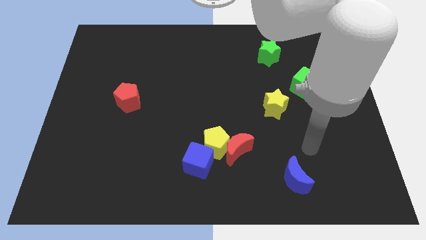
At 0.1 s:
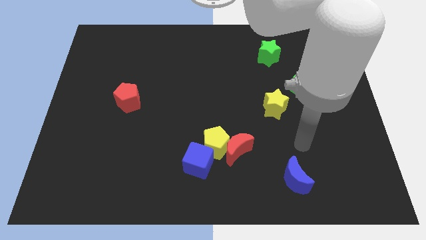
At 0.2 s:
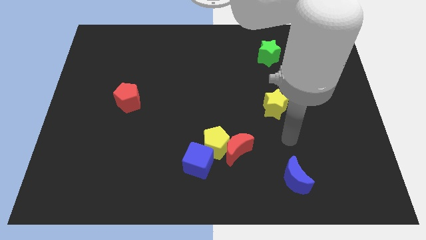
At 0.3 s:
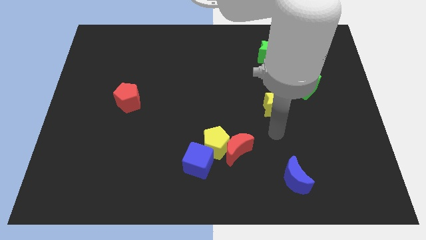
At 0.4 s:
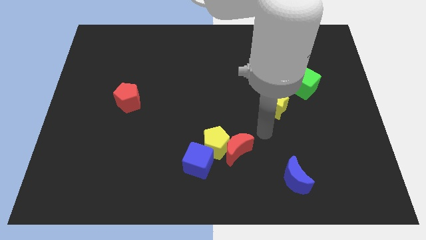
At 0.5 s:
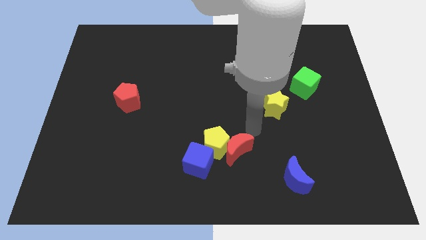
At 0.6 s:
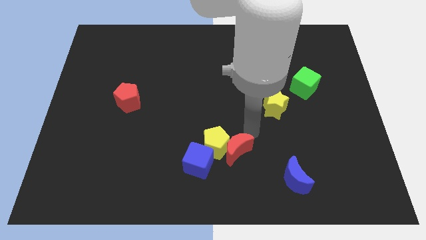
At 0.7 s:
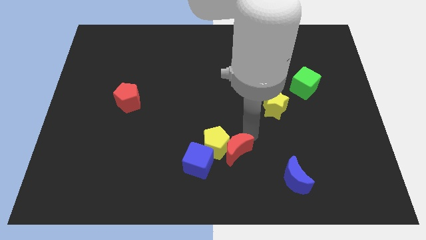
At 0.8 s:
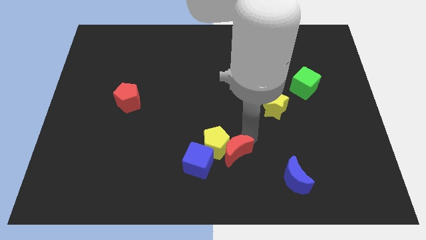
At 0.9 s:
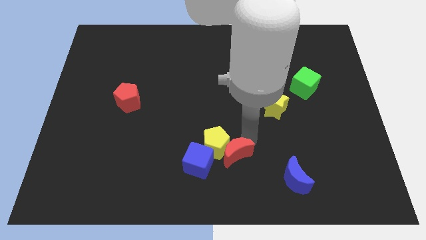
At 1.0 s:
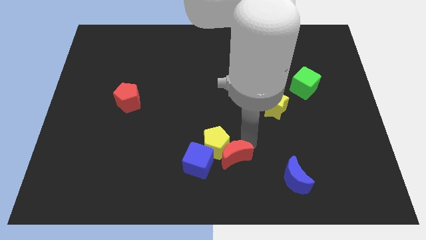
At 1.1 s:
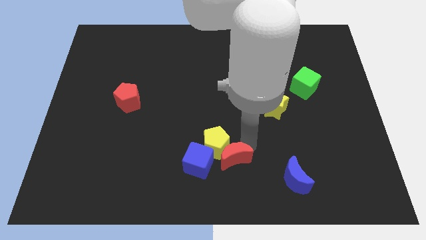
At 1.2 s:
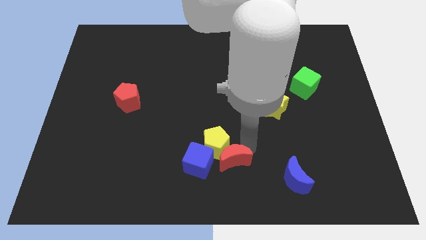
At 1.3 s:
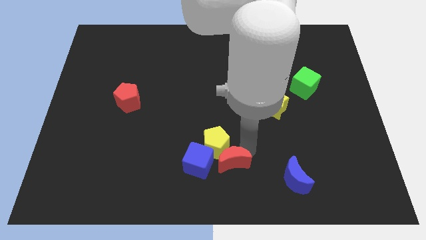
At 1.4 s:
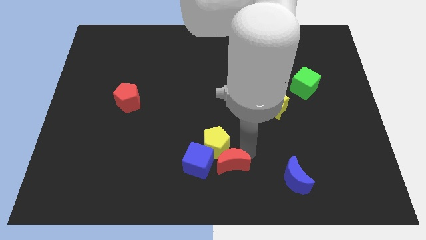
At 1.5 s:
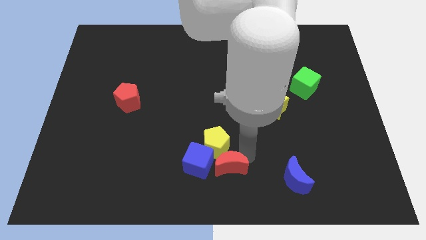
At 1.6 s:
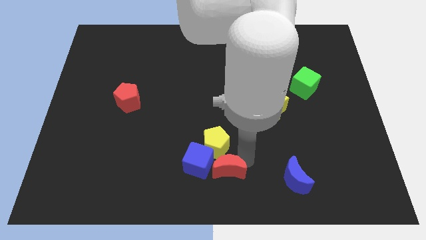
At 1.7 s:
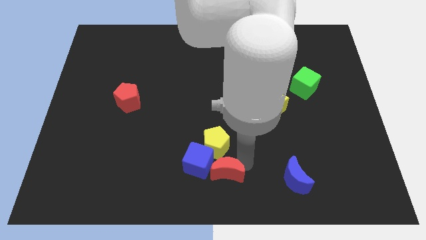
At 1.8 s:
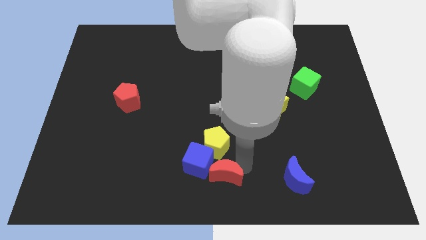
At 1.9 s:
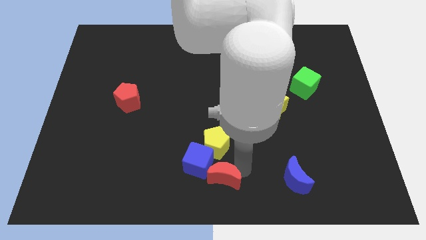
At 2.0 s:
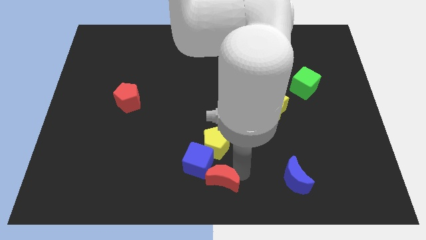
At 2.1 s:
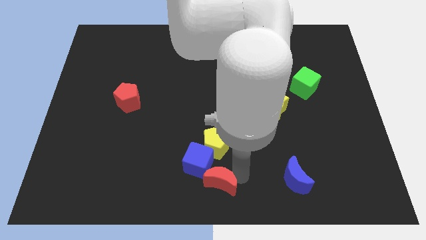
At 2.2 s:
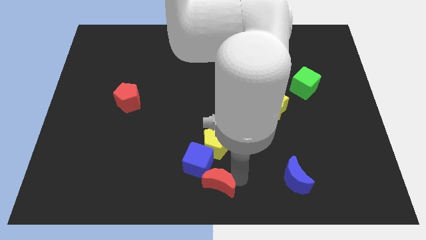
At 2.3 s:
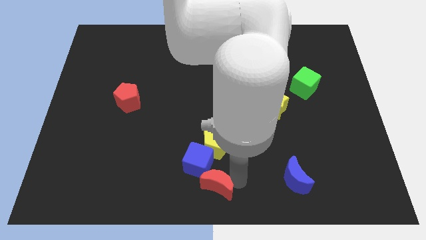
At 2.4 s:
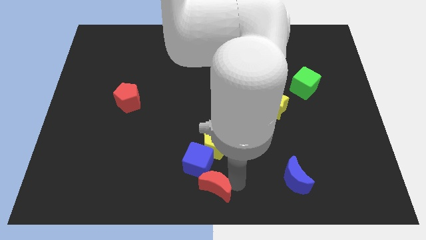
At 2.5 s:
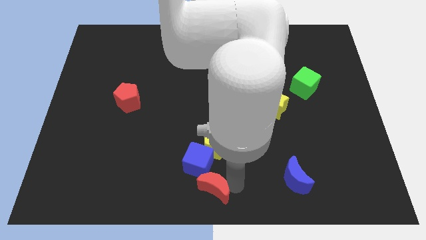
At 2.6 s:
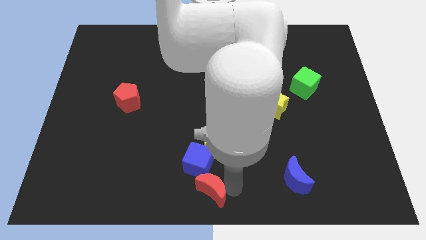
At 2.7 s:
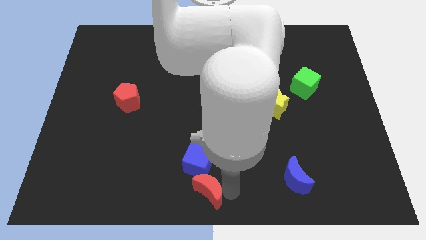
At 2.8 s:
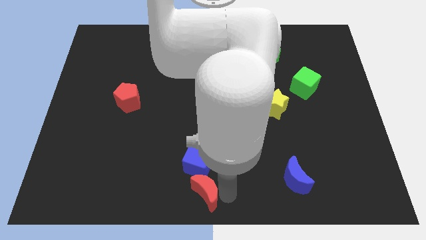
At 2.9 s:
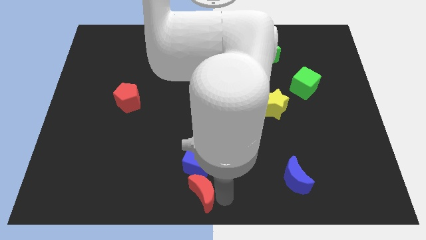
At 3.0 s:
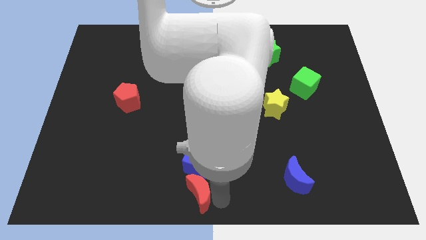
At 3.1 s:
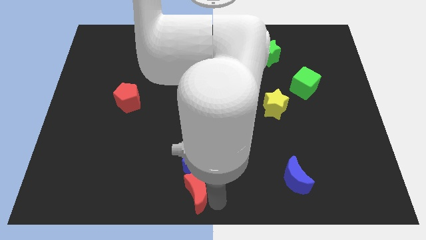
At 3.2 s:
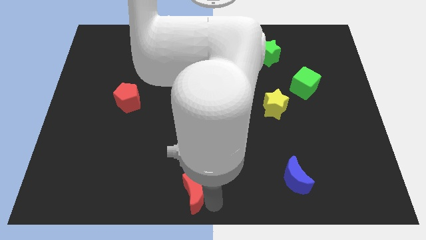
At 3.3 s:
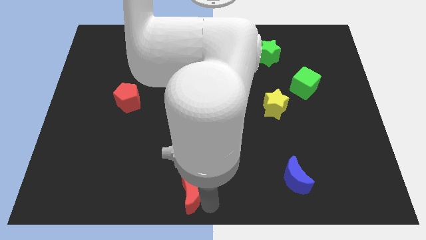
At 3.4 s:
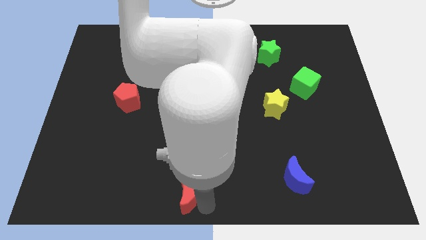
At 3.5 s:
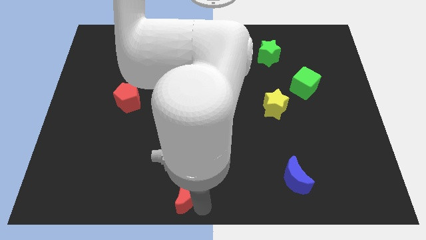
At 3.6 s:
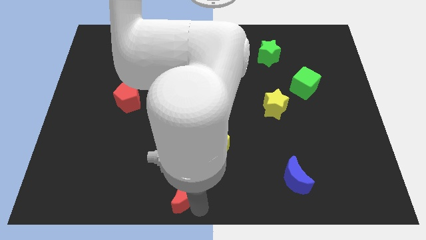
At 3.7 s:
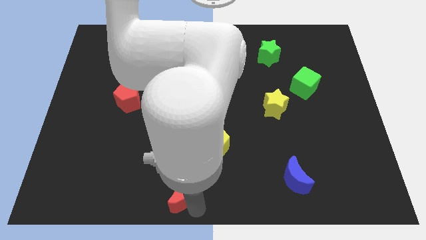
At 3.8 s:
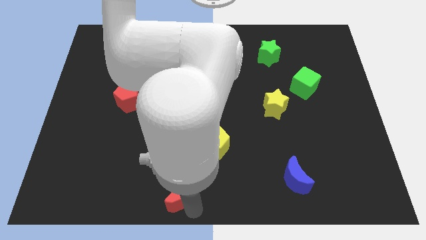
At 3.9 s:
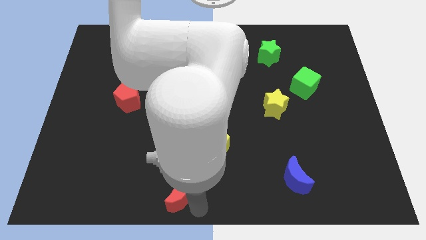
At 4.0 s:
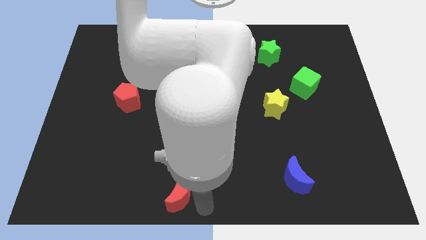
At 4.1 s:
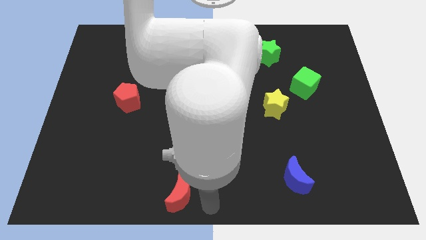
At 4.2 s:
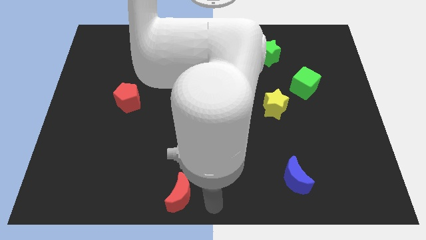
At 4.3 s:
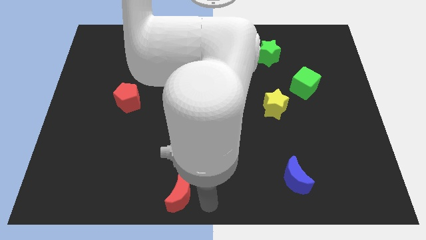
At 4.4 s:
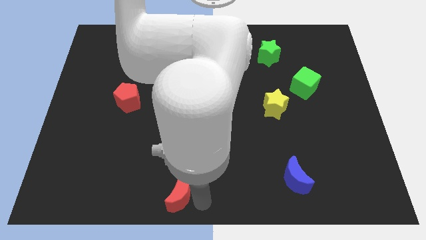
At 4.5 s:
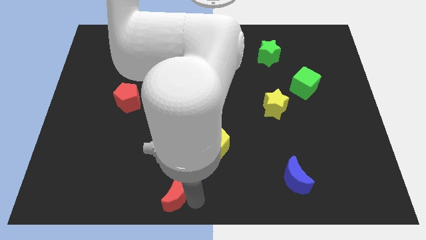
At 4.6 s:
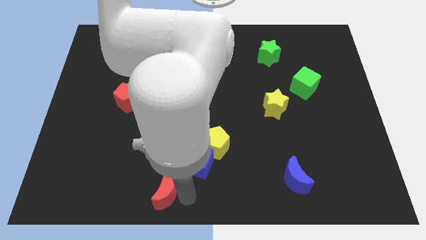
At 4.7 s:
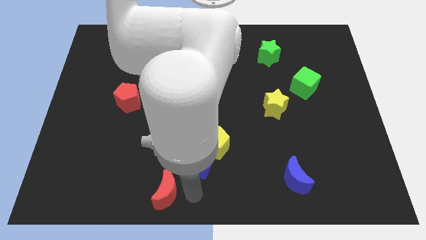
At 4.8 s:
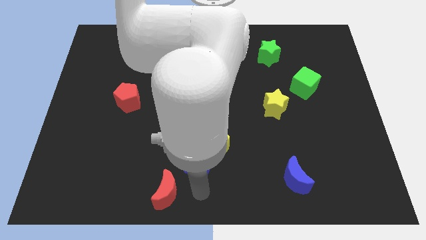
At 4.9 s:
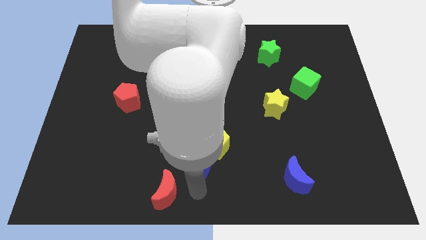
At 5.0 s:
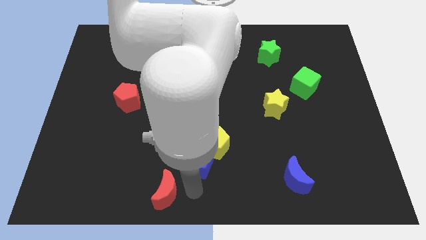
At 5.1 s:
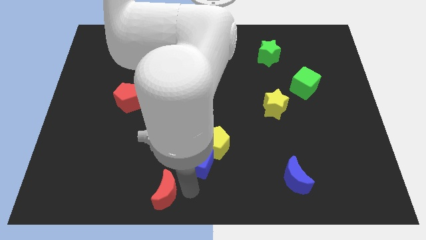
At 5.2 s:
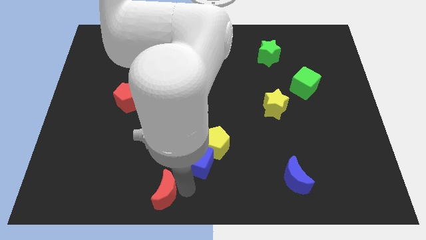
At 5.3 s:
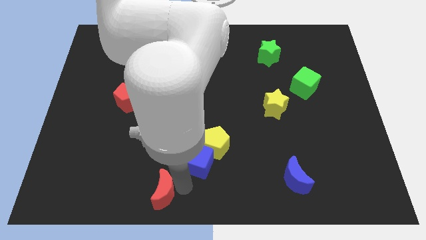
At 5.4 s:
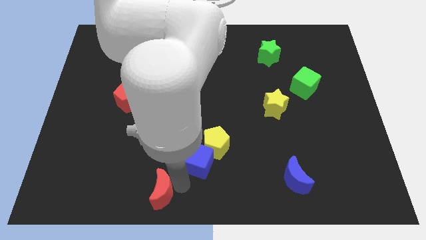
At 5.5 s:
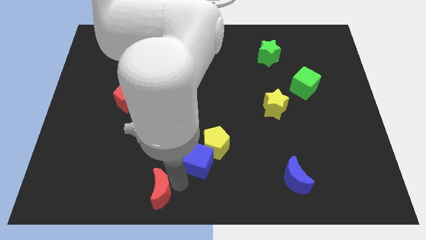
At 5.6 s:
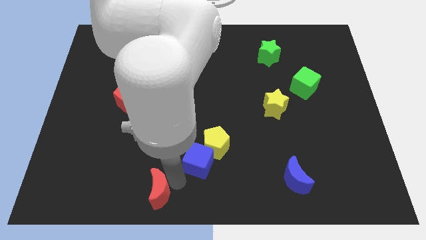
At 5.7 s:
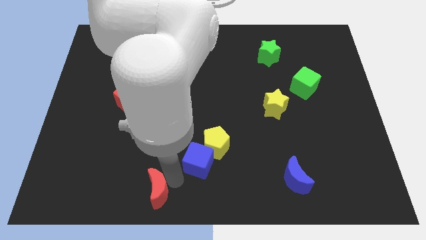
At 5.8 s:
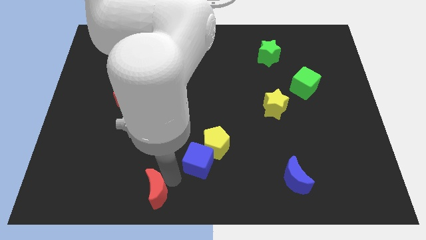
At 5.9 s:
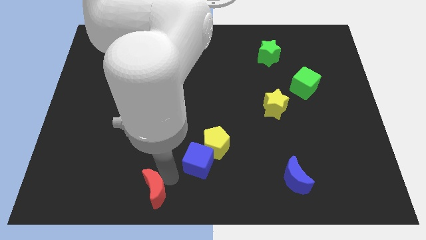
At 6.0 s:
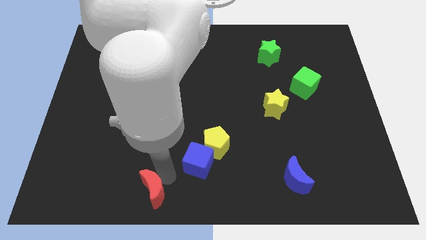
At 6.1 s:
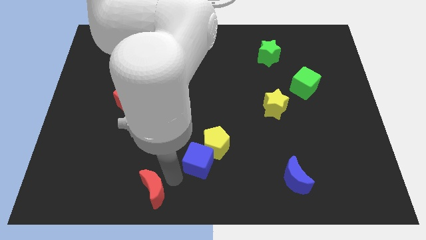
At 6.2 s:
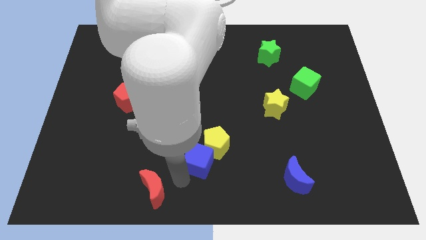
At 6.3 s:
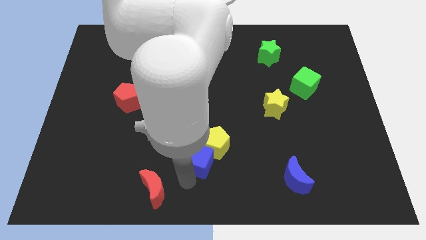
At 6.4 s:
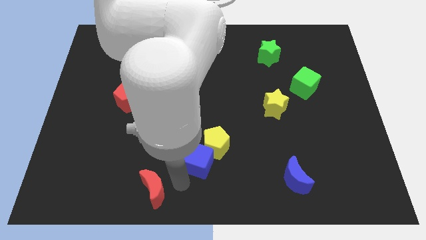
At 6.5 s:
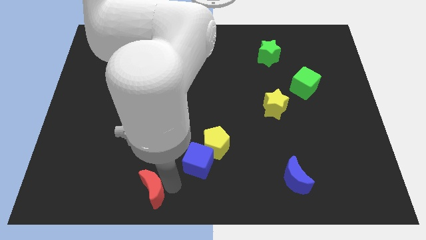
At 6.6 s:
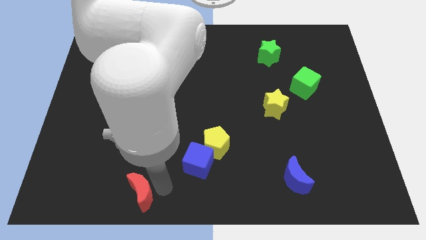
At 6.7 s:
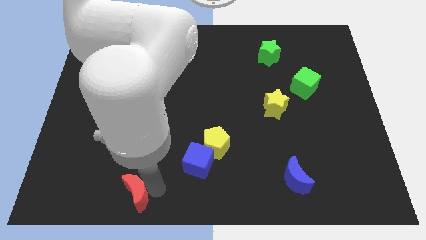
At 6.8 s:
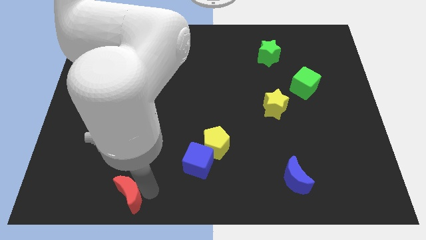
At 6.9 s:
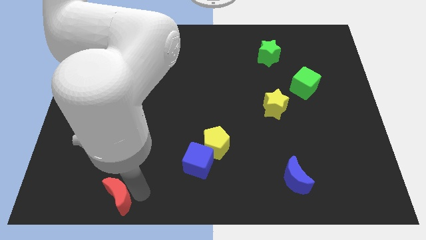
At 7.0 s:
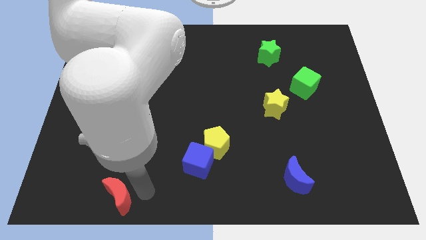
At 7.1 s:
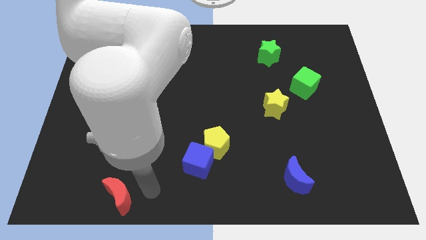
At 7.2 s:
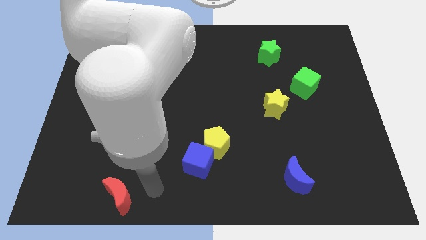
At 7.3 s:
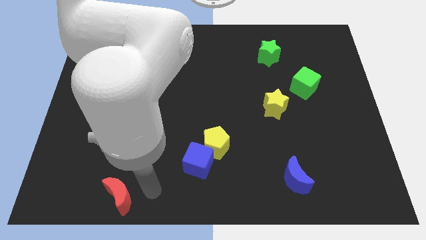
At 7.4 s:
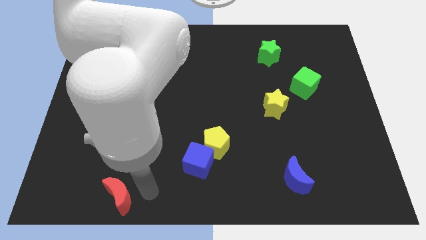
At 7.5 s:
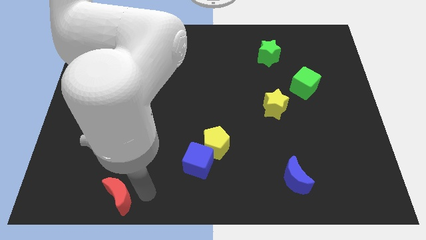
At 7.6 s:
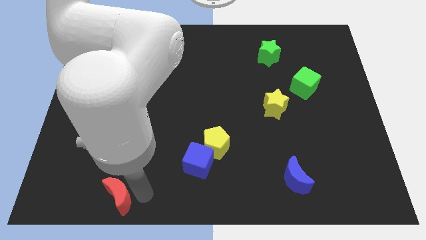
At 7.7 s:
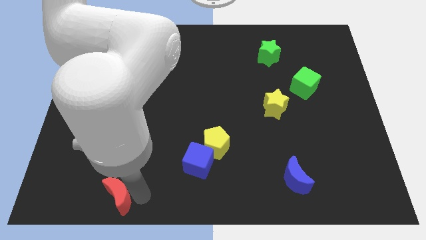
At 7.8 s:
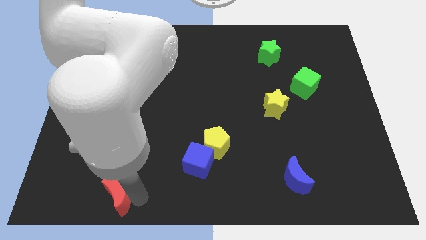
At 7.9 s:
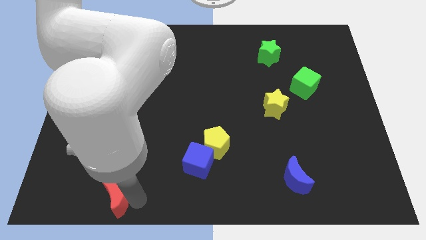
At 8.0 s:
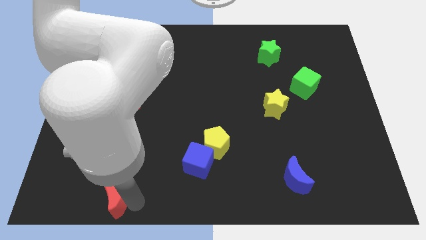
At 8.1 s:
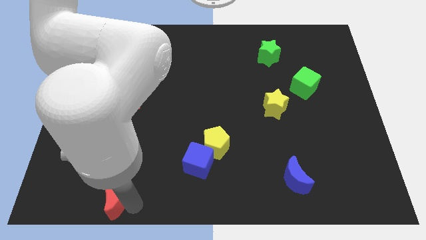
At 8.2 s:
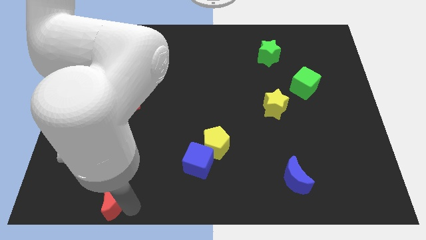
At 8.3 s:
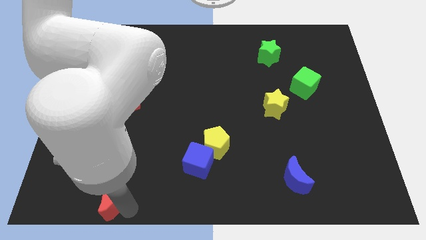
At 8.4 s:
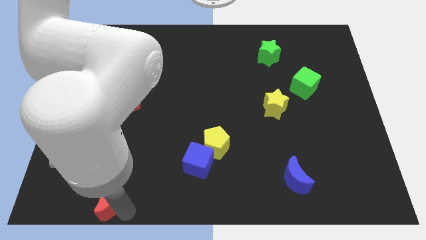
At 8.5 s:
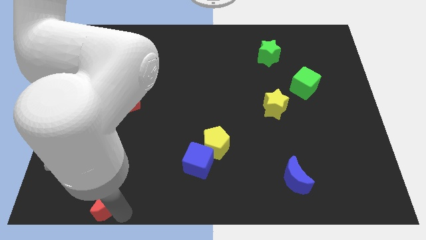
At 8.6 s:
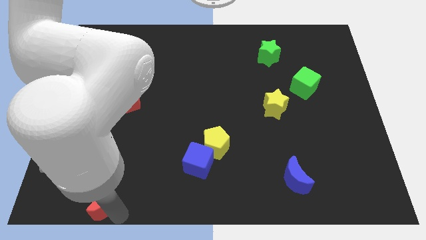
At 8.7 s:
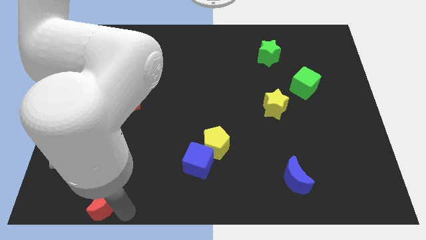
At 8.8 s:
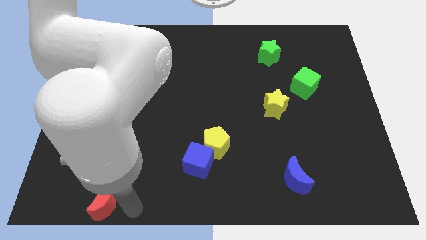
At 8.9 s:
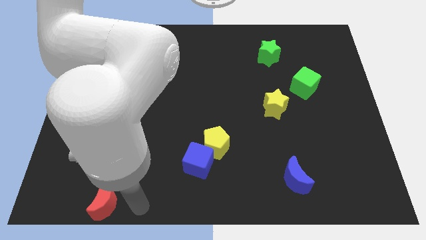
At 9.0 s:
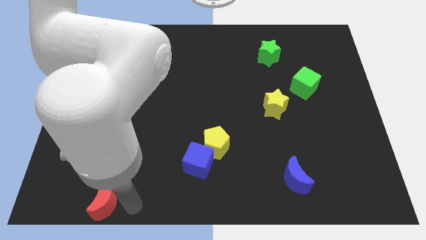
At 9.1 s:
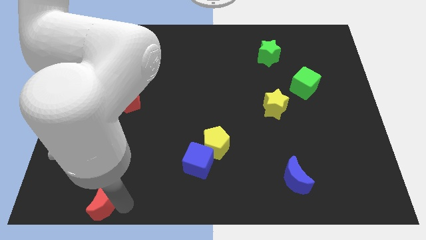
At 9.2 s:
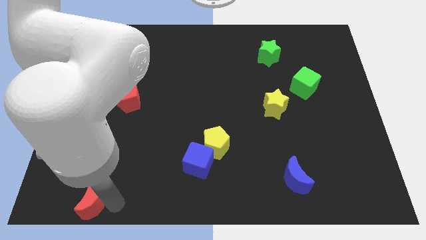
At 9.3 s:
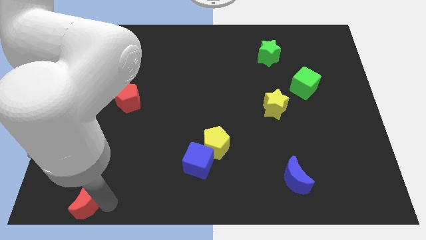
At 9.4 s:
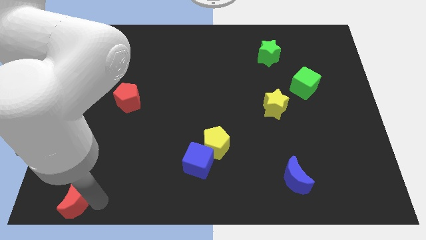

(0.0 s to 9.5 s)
move the red moon to the bottom left of the board
